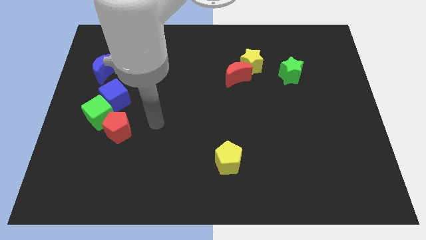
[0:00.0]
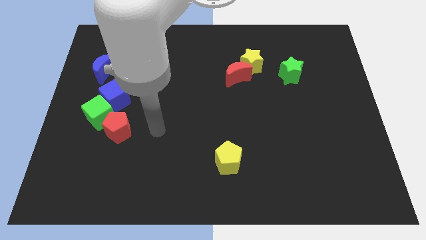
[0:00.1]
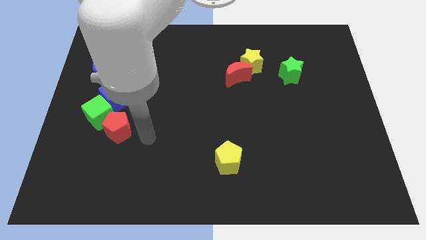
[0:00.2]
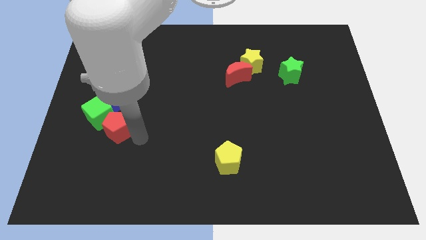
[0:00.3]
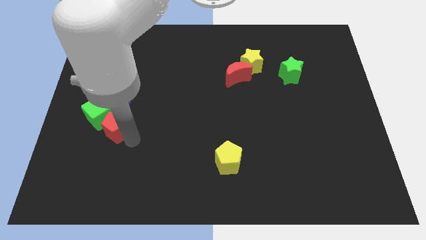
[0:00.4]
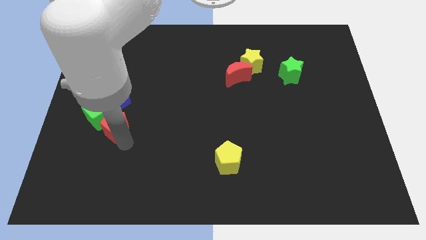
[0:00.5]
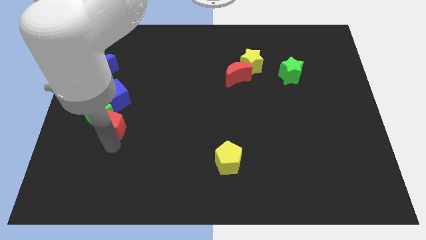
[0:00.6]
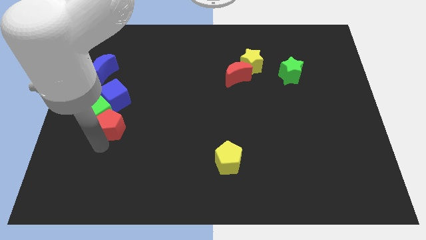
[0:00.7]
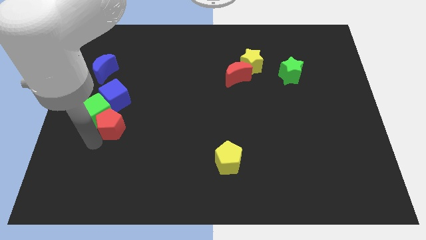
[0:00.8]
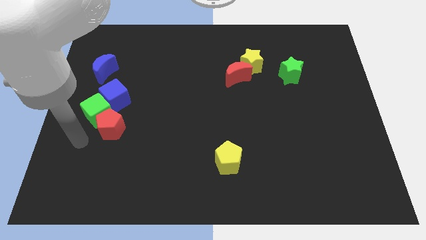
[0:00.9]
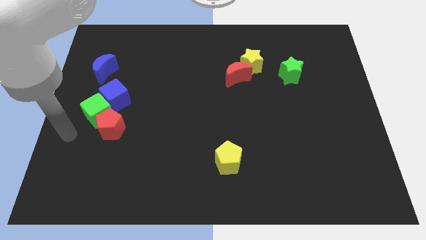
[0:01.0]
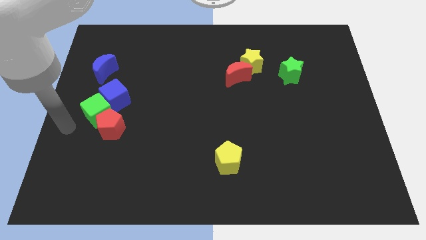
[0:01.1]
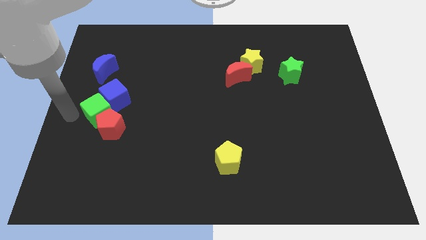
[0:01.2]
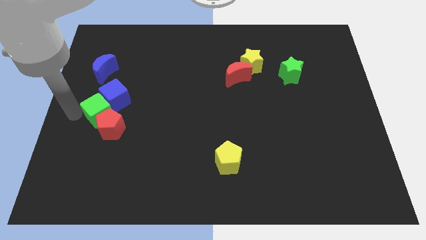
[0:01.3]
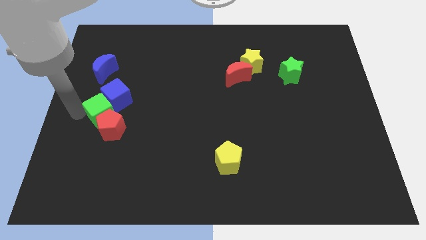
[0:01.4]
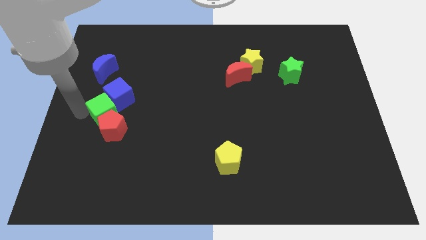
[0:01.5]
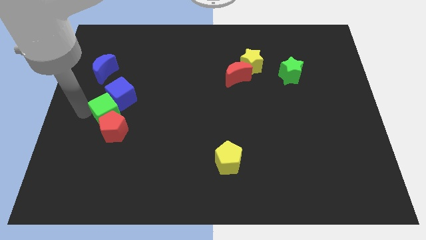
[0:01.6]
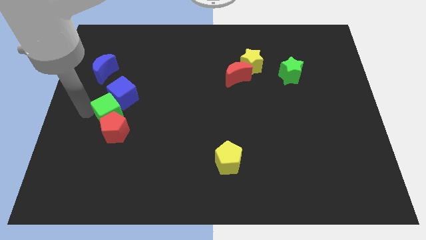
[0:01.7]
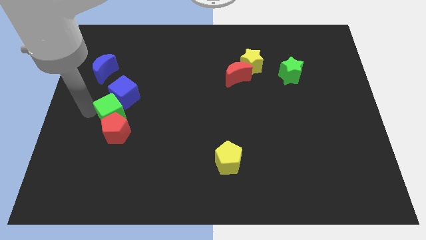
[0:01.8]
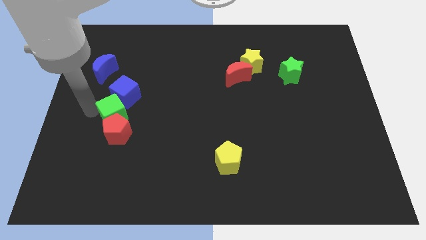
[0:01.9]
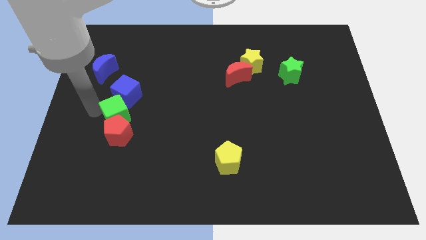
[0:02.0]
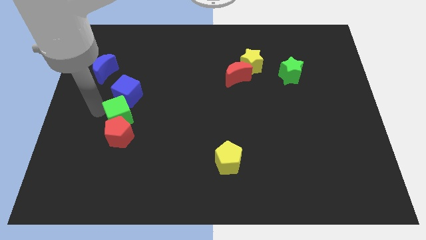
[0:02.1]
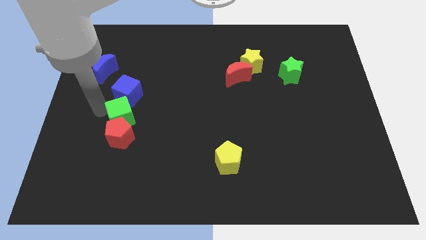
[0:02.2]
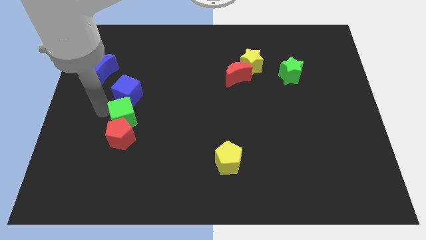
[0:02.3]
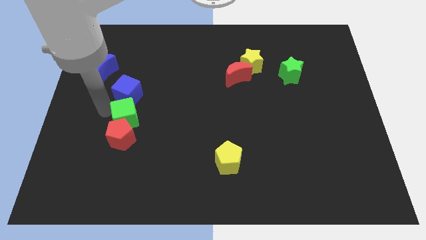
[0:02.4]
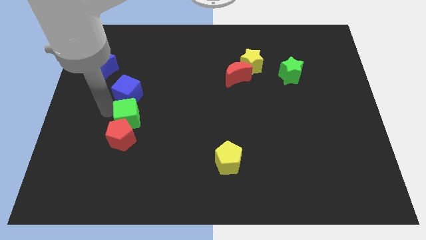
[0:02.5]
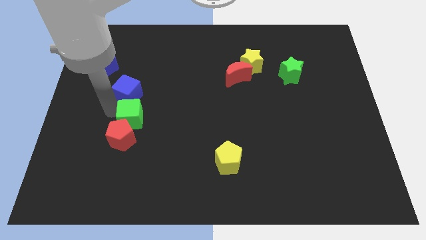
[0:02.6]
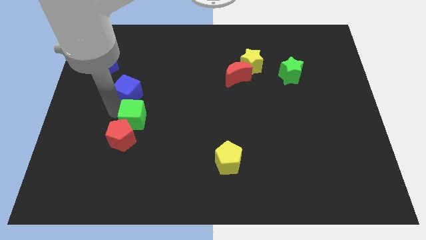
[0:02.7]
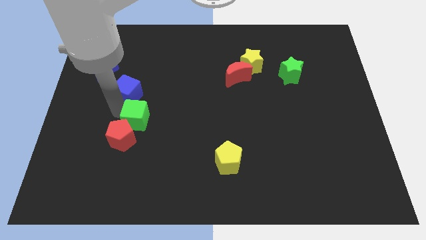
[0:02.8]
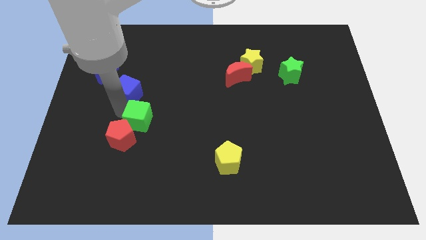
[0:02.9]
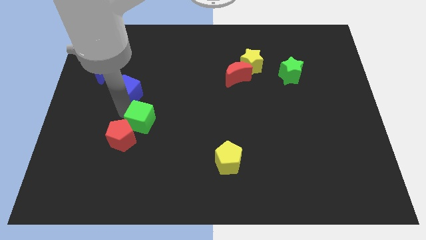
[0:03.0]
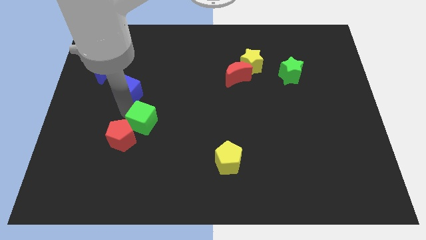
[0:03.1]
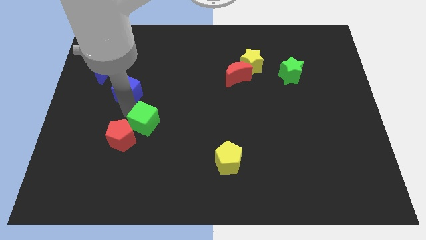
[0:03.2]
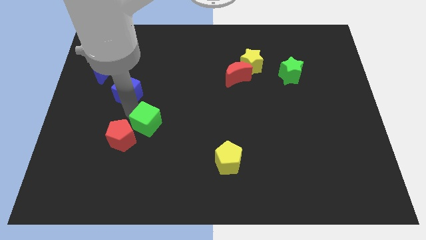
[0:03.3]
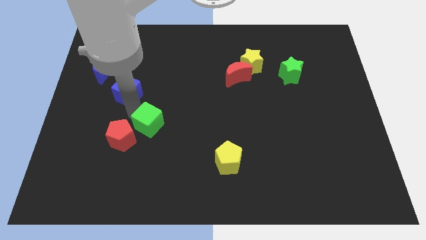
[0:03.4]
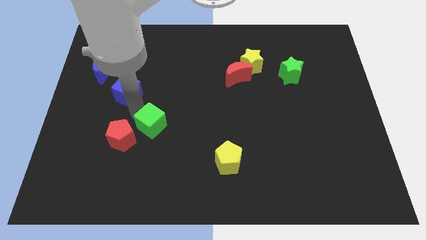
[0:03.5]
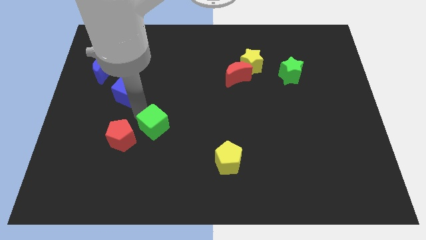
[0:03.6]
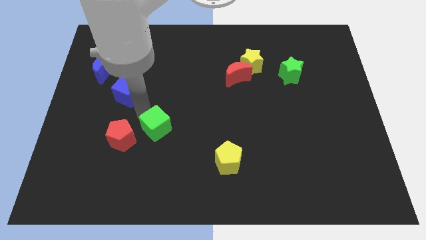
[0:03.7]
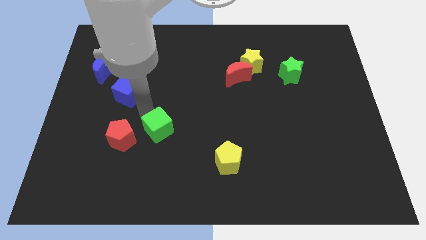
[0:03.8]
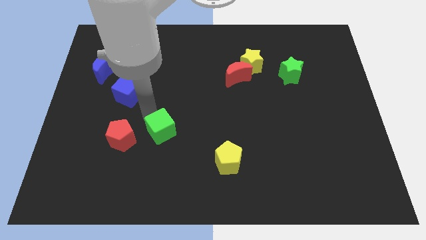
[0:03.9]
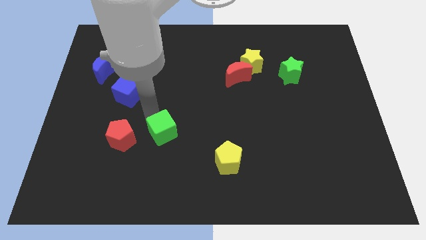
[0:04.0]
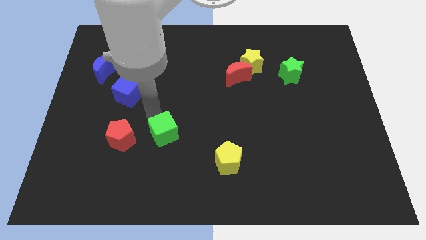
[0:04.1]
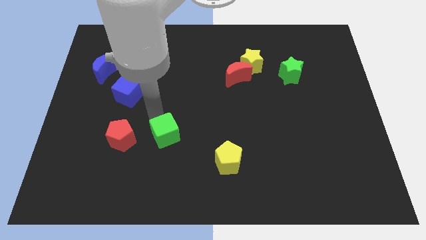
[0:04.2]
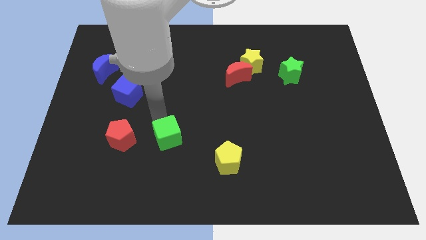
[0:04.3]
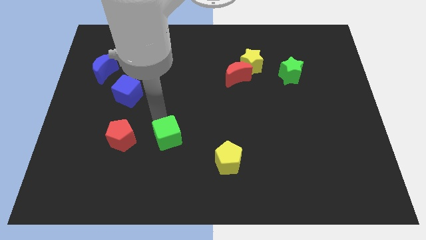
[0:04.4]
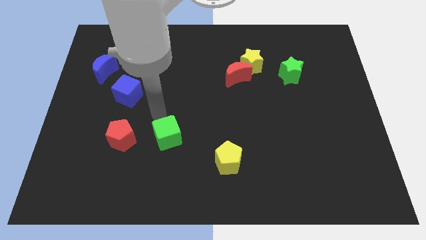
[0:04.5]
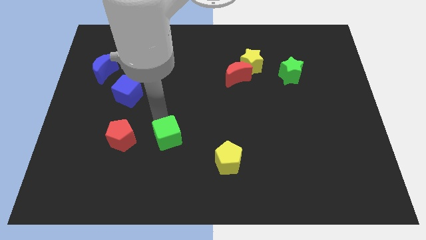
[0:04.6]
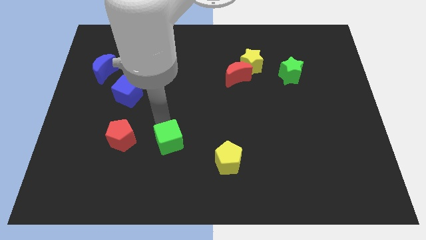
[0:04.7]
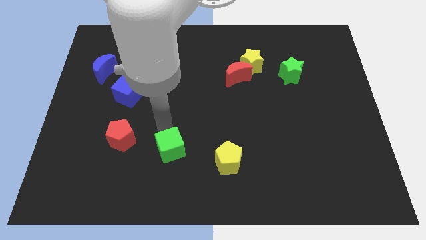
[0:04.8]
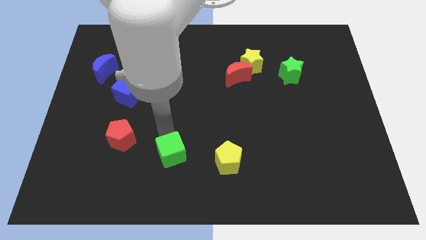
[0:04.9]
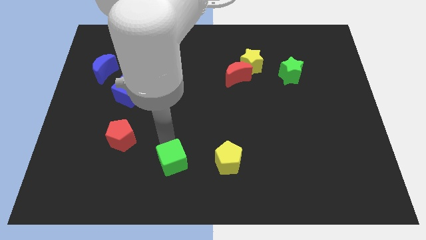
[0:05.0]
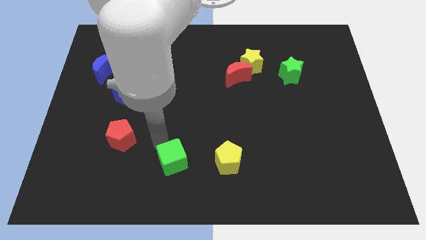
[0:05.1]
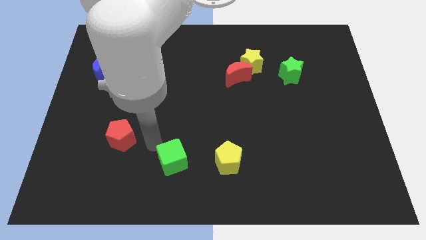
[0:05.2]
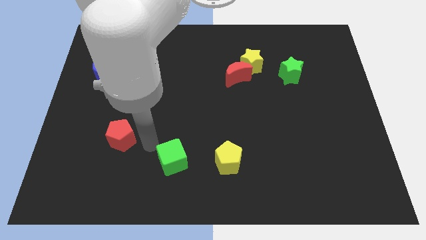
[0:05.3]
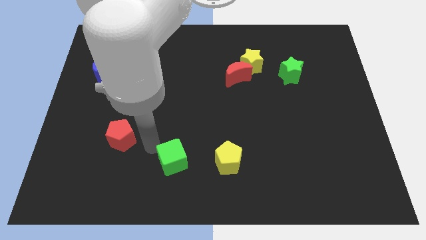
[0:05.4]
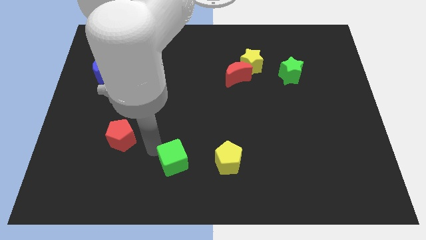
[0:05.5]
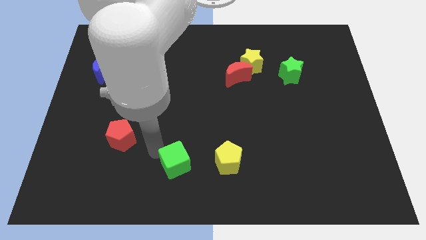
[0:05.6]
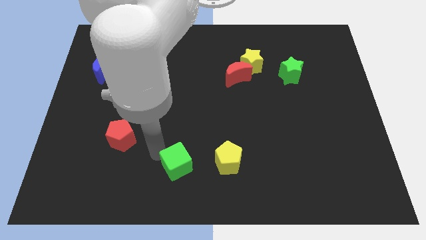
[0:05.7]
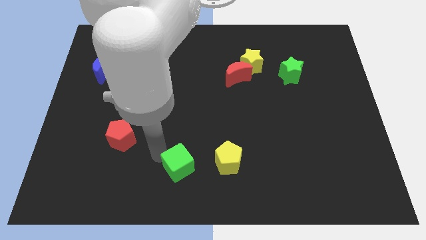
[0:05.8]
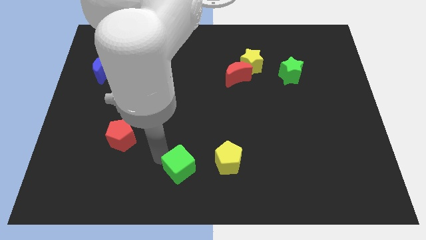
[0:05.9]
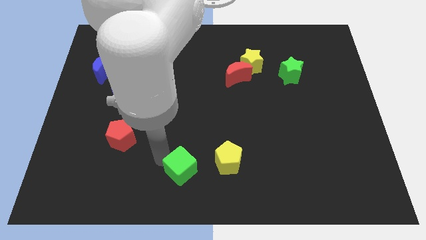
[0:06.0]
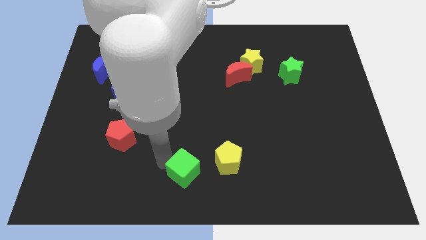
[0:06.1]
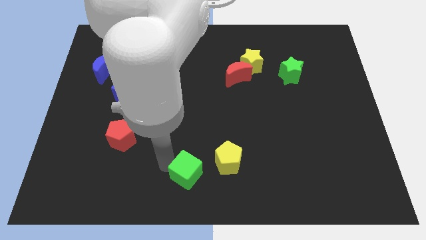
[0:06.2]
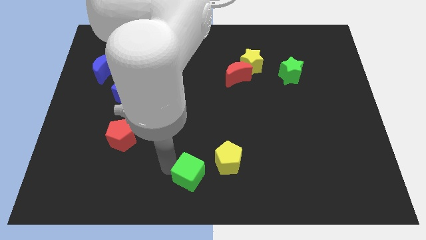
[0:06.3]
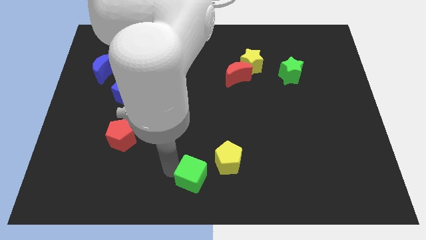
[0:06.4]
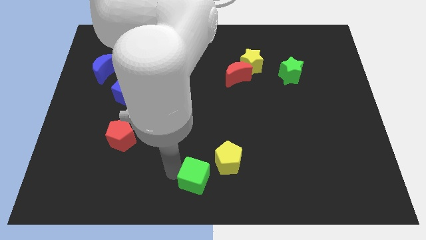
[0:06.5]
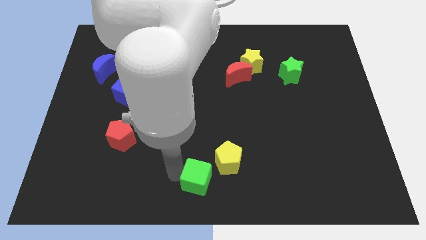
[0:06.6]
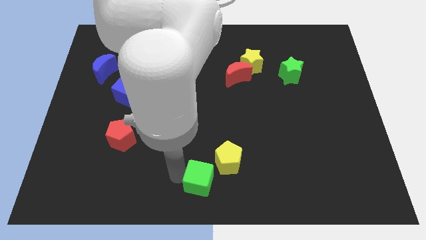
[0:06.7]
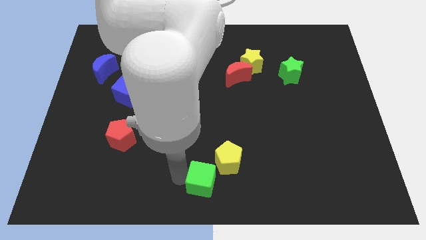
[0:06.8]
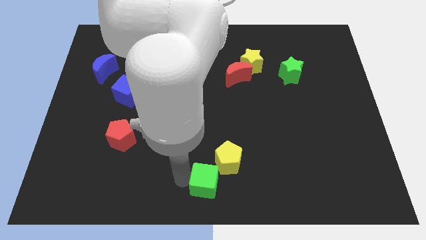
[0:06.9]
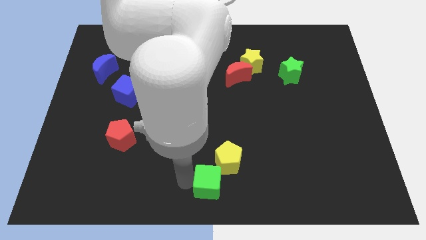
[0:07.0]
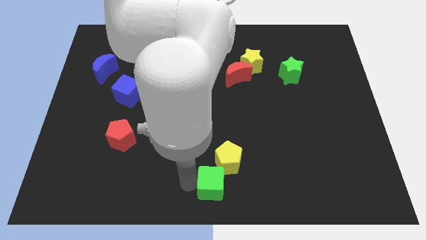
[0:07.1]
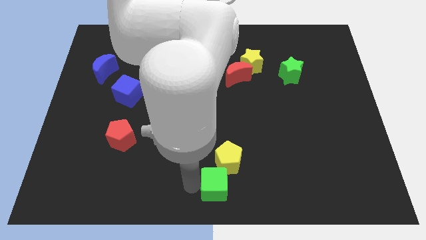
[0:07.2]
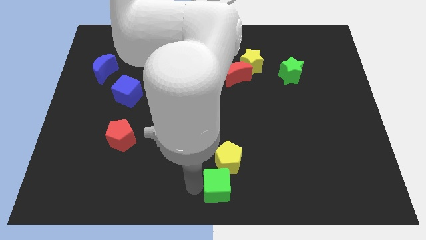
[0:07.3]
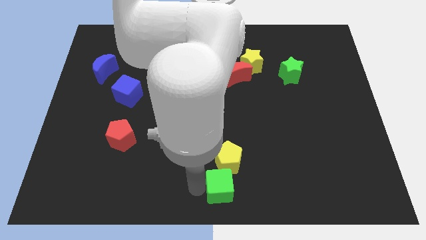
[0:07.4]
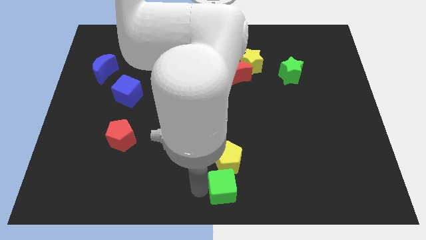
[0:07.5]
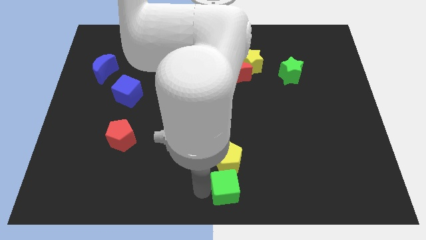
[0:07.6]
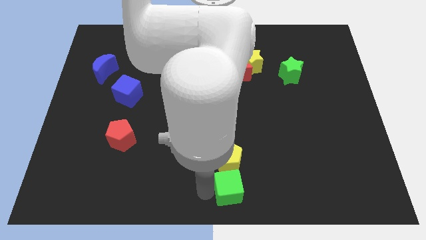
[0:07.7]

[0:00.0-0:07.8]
push the green cube diagonally down and to the right of the yellow pentagon
